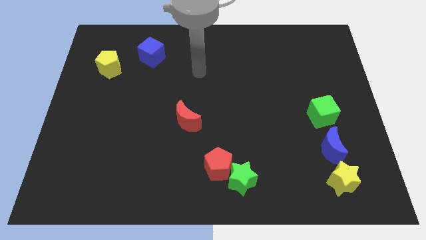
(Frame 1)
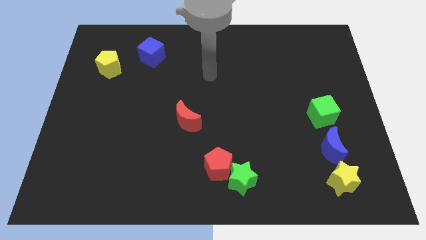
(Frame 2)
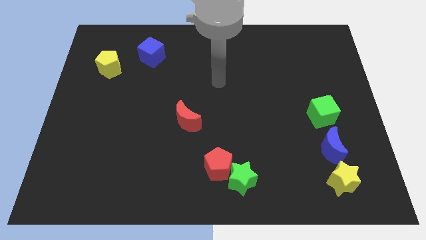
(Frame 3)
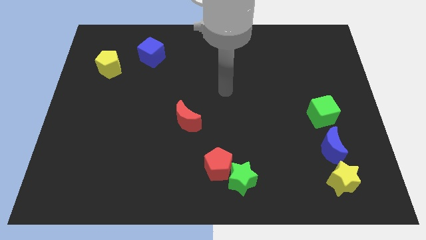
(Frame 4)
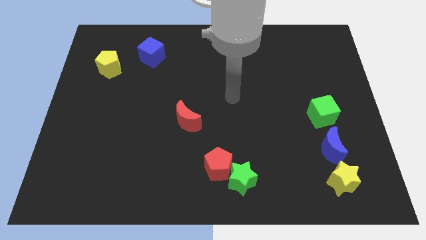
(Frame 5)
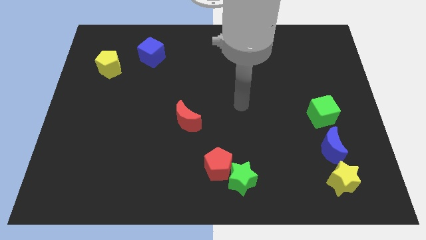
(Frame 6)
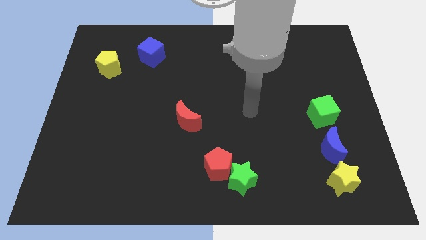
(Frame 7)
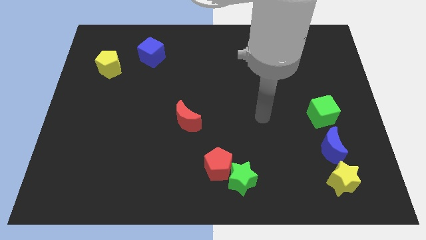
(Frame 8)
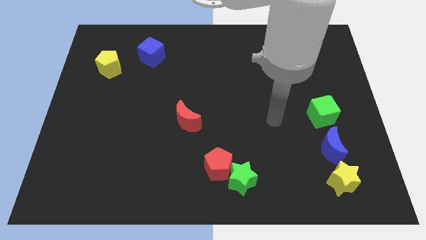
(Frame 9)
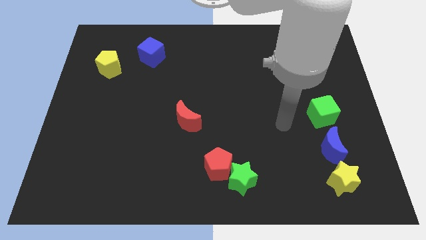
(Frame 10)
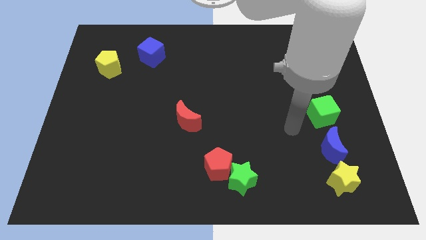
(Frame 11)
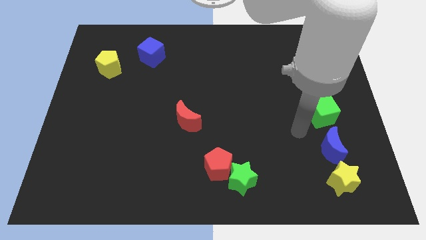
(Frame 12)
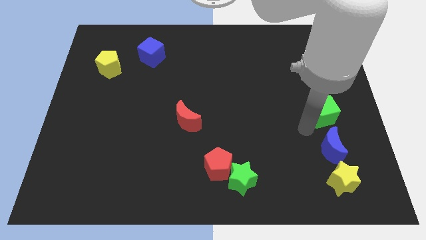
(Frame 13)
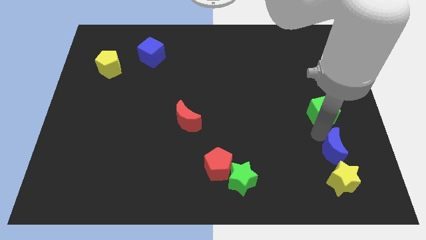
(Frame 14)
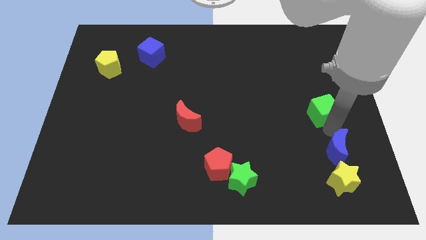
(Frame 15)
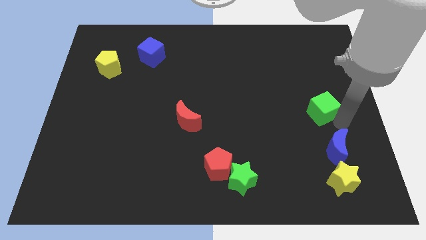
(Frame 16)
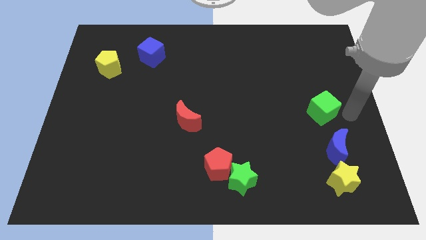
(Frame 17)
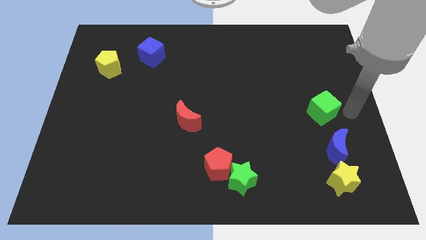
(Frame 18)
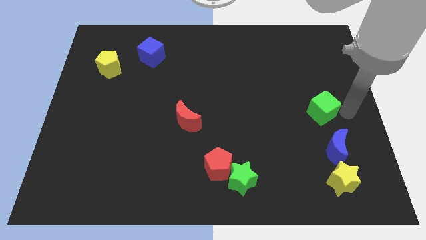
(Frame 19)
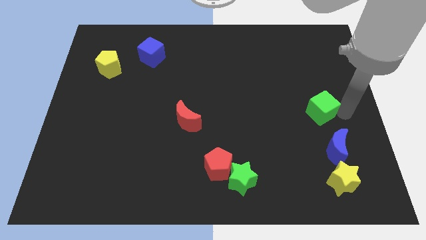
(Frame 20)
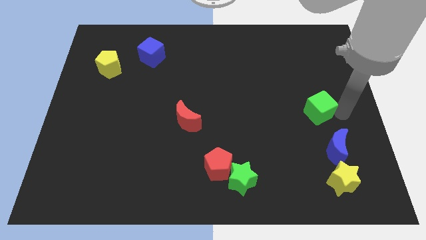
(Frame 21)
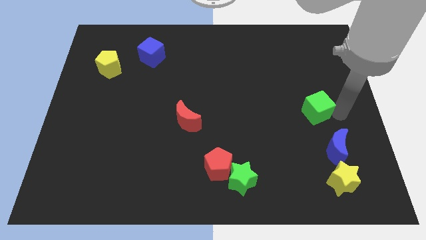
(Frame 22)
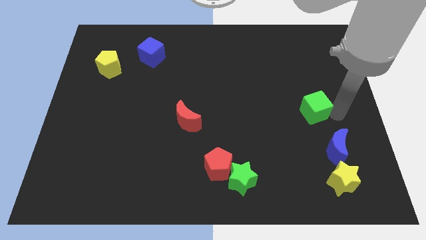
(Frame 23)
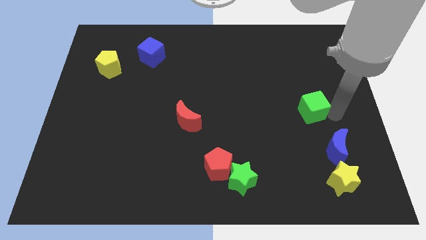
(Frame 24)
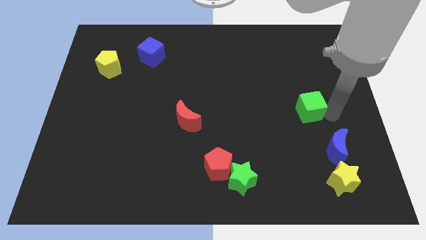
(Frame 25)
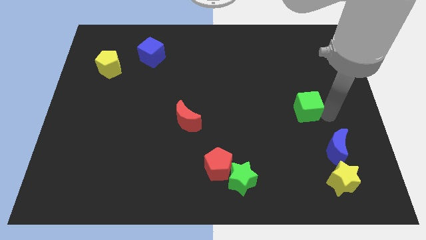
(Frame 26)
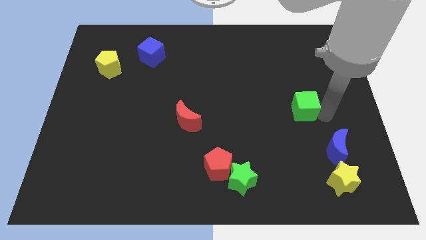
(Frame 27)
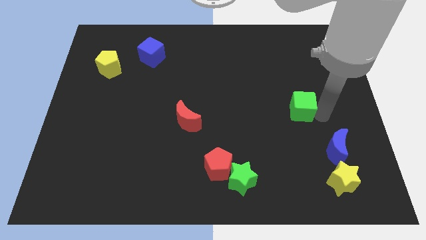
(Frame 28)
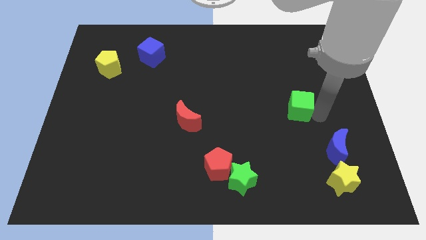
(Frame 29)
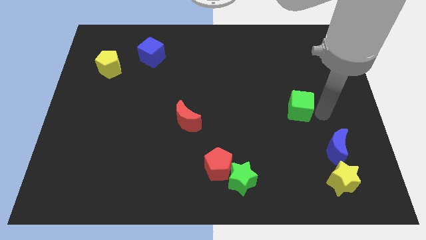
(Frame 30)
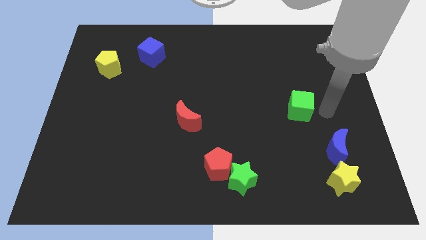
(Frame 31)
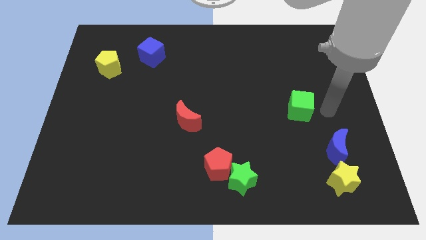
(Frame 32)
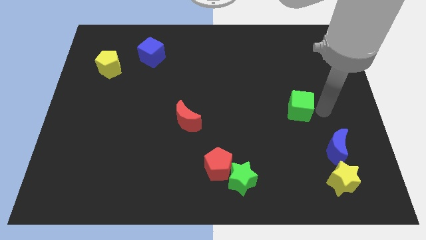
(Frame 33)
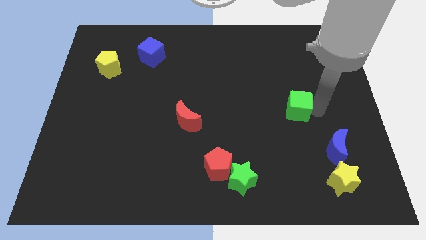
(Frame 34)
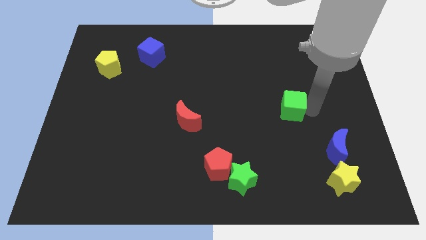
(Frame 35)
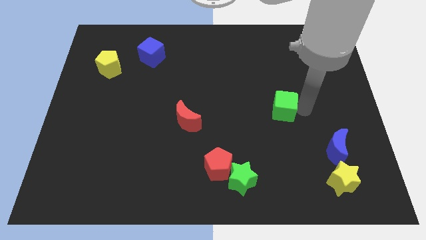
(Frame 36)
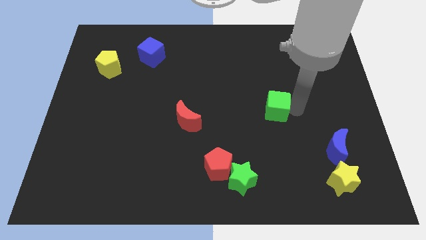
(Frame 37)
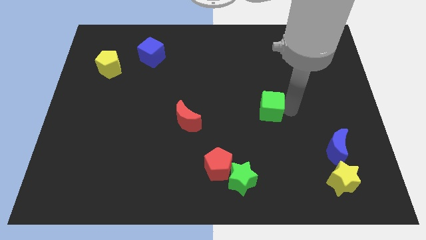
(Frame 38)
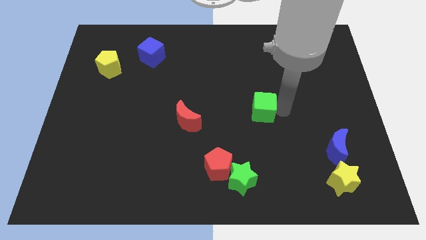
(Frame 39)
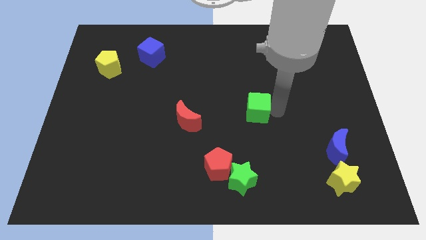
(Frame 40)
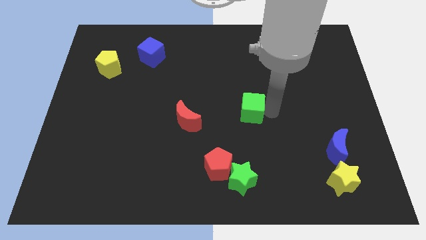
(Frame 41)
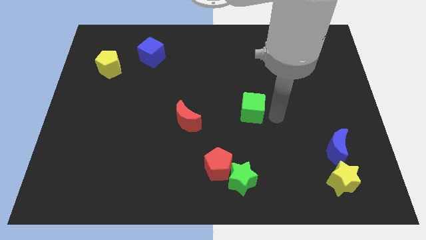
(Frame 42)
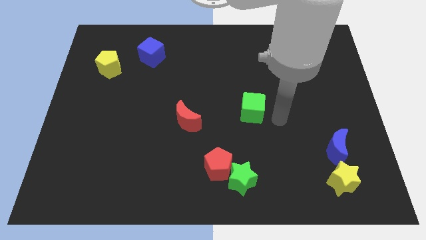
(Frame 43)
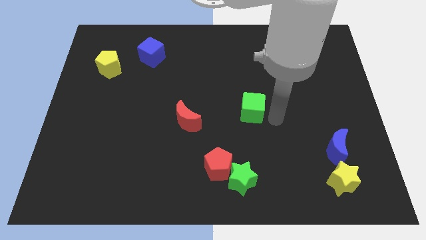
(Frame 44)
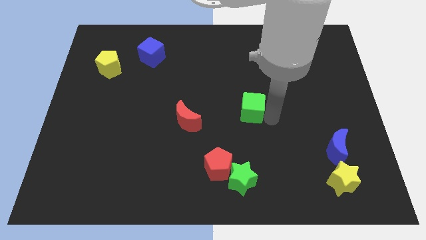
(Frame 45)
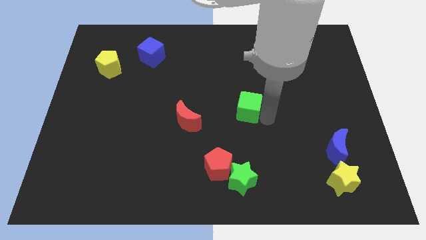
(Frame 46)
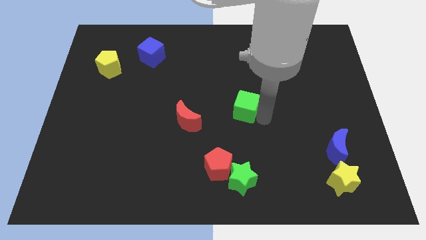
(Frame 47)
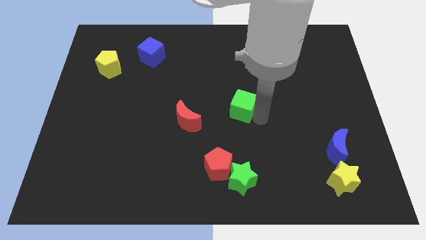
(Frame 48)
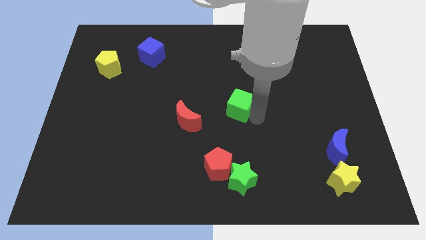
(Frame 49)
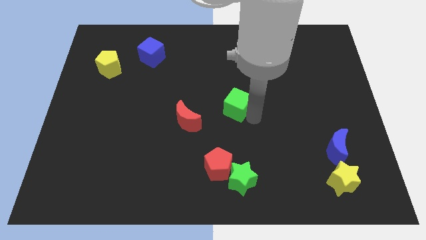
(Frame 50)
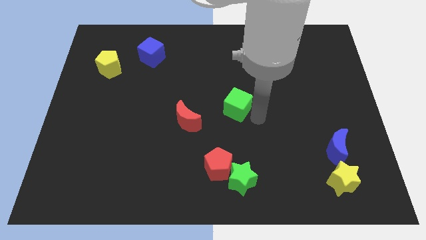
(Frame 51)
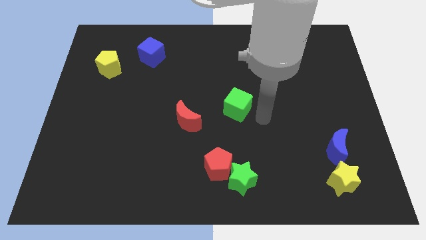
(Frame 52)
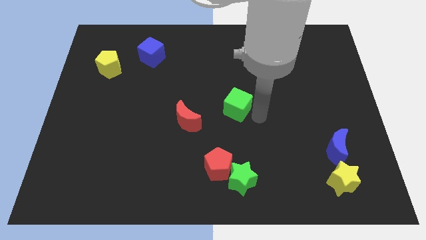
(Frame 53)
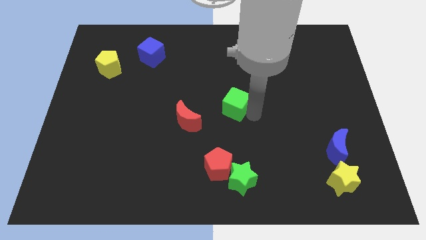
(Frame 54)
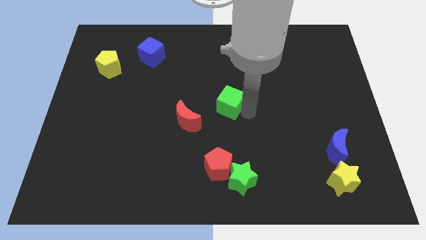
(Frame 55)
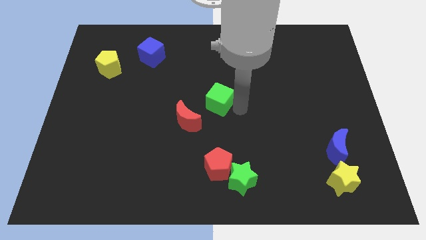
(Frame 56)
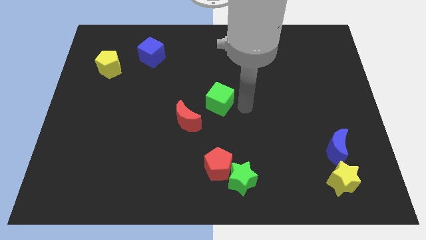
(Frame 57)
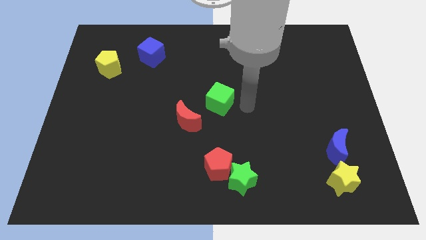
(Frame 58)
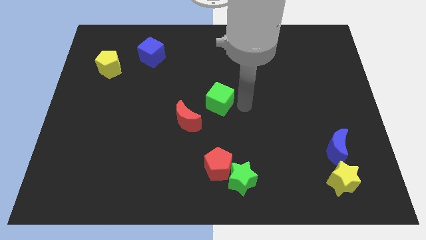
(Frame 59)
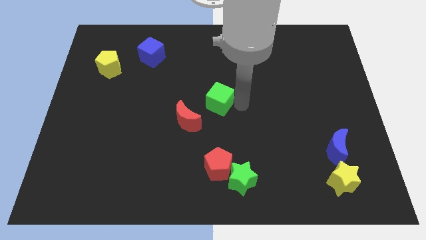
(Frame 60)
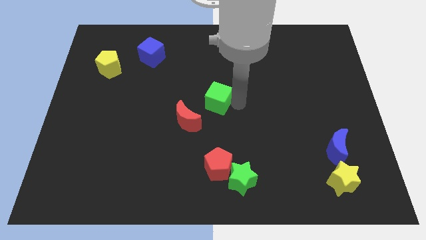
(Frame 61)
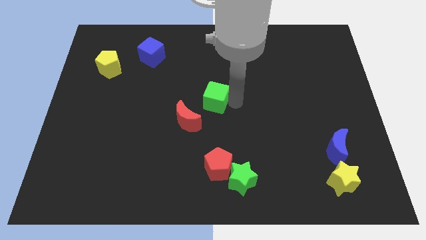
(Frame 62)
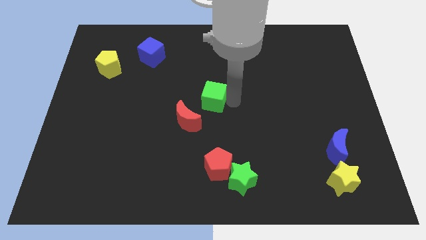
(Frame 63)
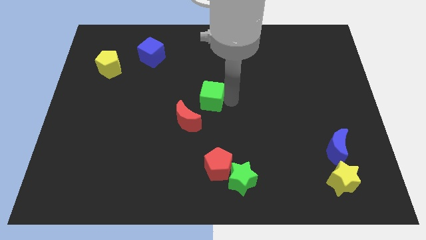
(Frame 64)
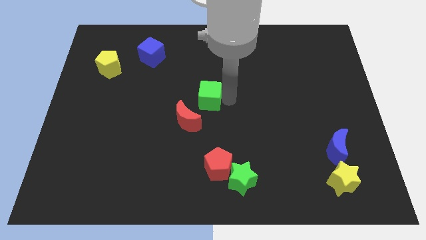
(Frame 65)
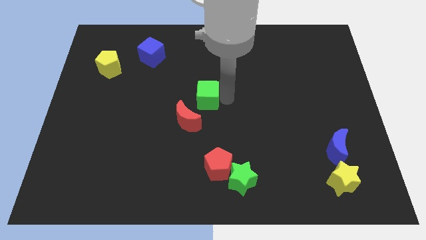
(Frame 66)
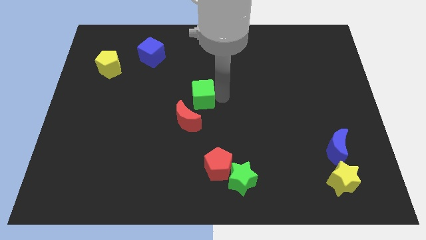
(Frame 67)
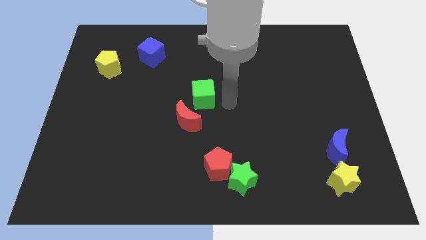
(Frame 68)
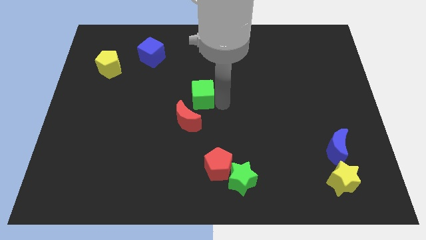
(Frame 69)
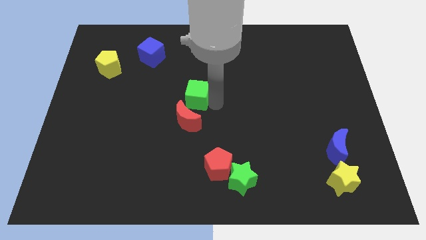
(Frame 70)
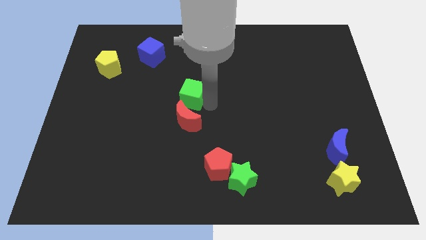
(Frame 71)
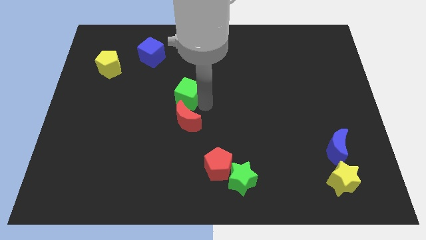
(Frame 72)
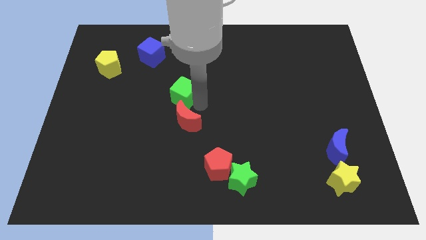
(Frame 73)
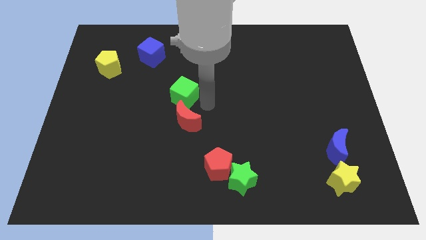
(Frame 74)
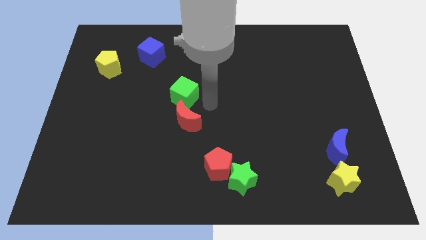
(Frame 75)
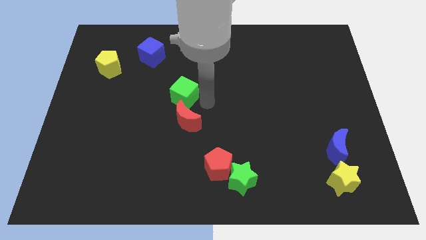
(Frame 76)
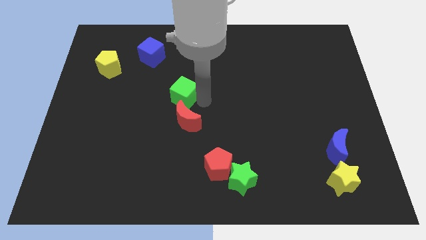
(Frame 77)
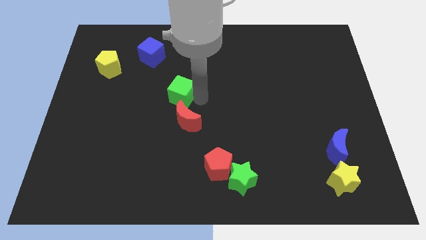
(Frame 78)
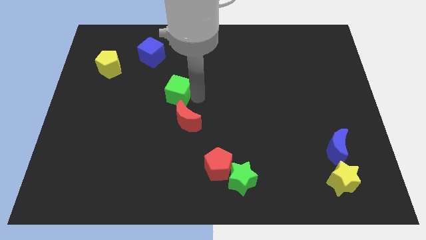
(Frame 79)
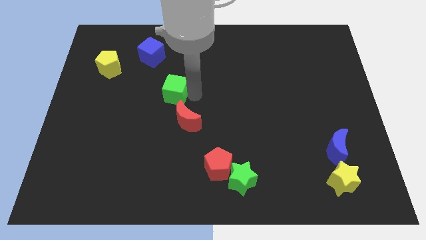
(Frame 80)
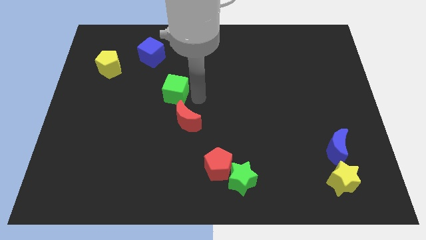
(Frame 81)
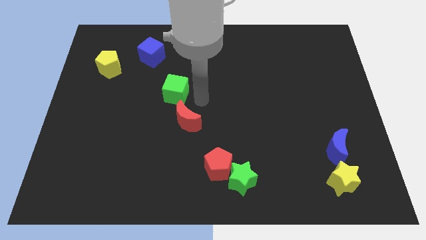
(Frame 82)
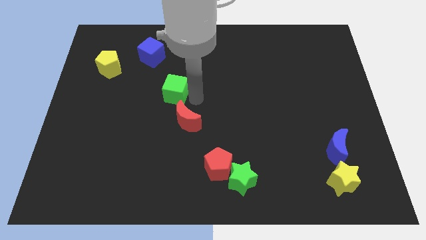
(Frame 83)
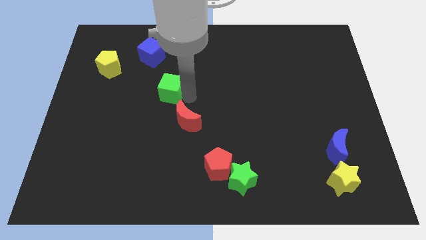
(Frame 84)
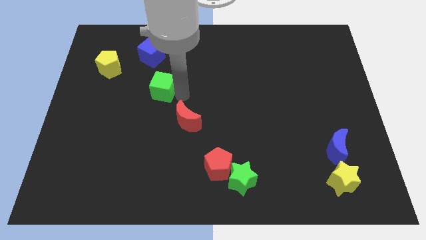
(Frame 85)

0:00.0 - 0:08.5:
put the green cube to the bottom side of the blue cube
